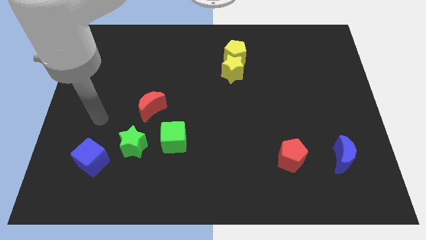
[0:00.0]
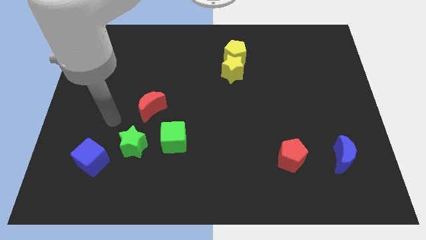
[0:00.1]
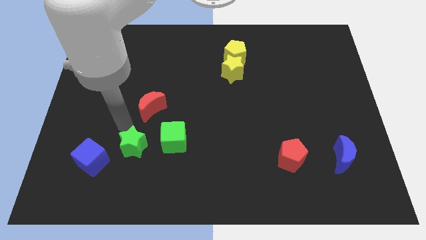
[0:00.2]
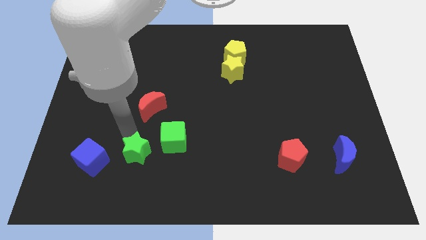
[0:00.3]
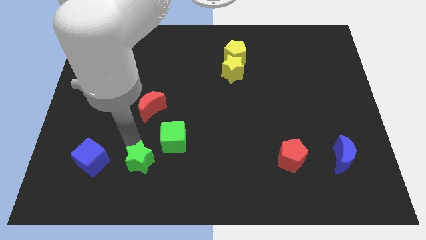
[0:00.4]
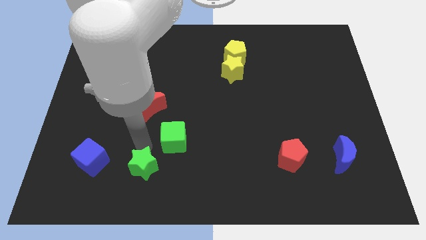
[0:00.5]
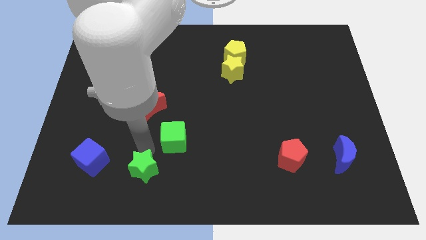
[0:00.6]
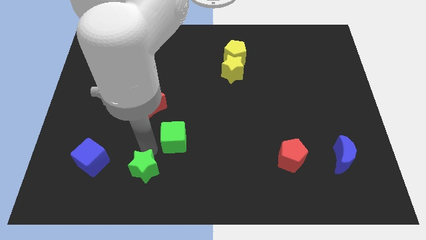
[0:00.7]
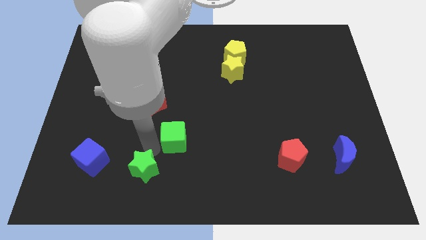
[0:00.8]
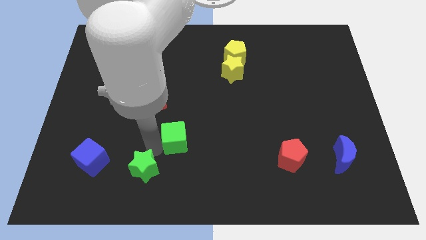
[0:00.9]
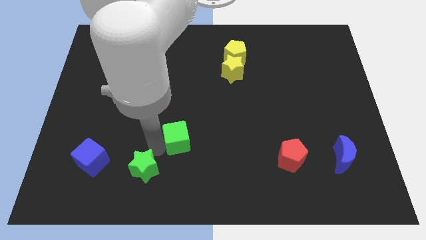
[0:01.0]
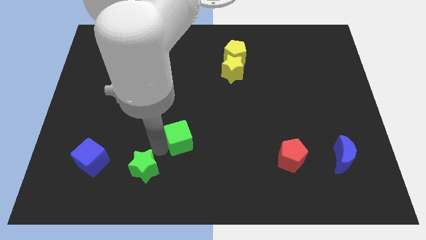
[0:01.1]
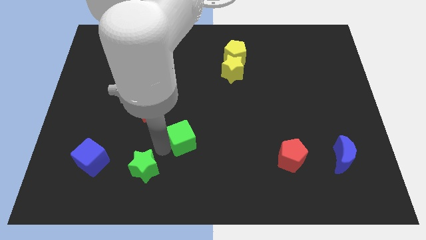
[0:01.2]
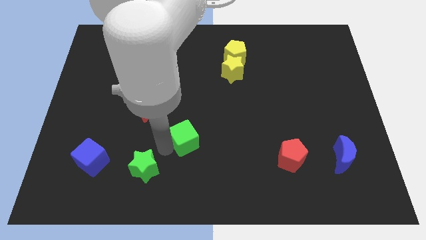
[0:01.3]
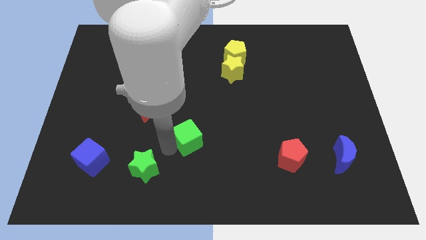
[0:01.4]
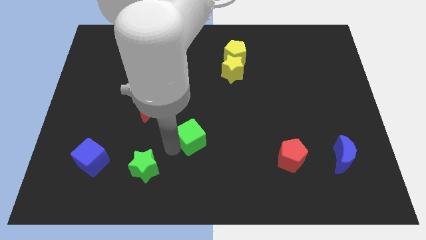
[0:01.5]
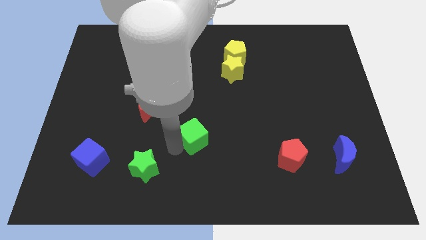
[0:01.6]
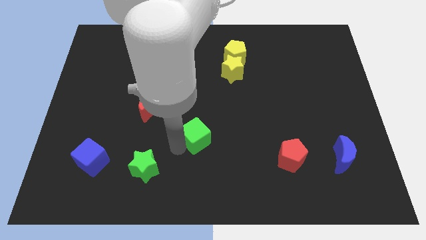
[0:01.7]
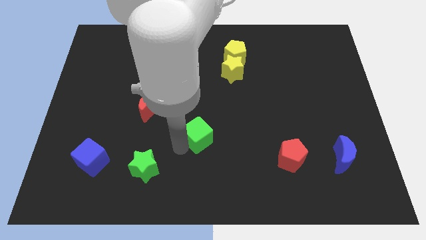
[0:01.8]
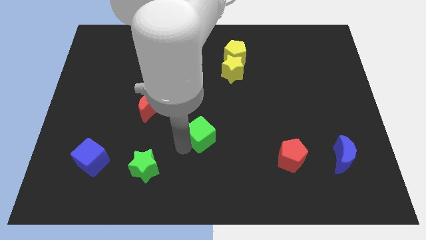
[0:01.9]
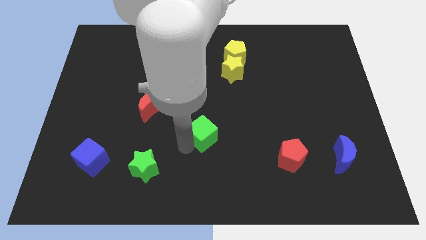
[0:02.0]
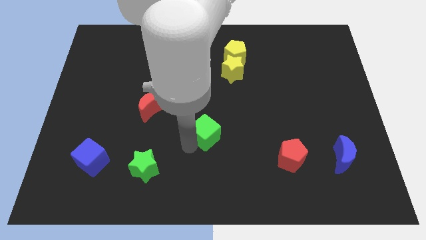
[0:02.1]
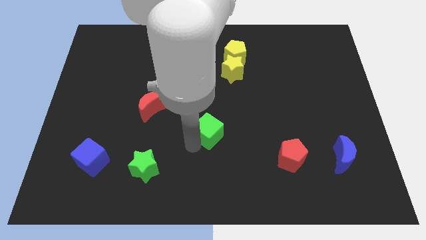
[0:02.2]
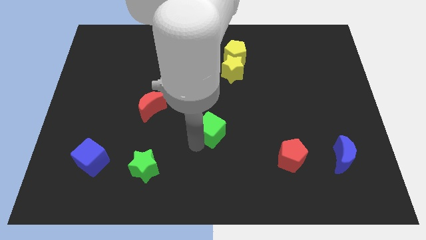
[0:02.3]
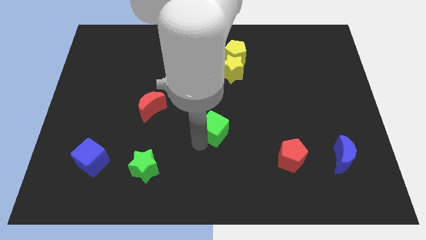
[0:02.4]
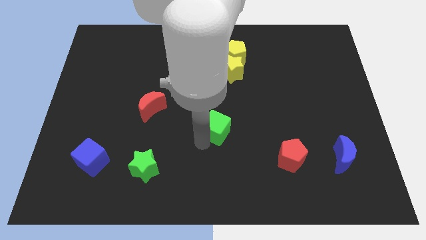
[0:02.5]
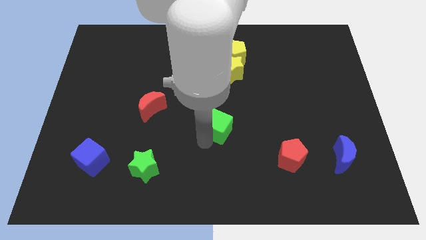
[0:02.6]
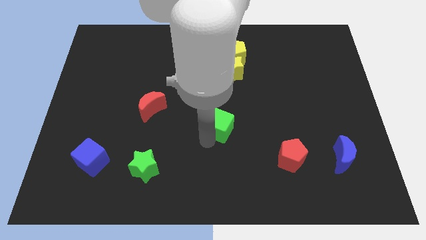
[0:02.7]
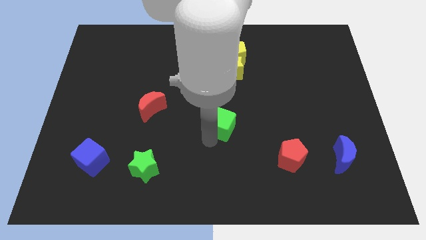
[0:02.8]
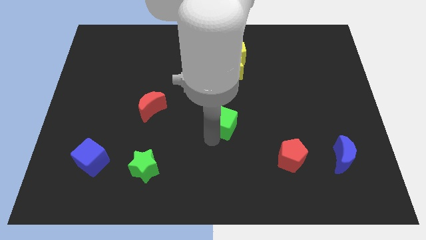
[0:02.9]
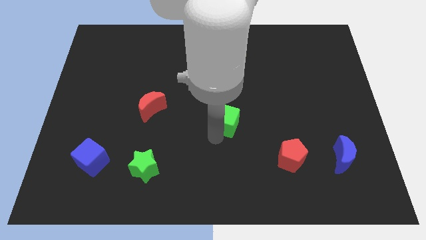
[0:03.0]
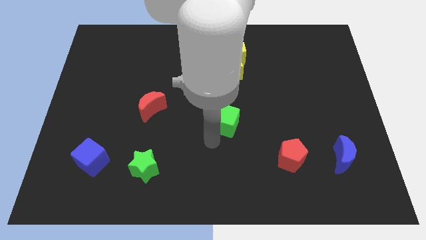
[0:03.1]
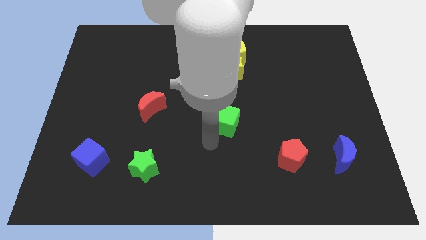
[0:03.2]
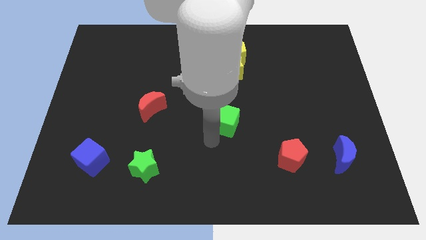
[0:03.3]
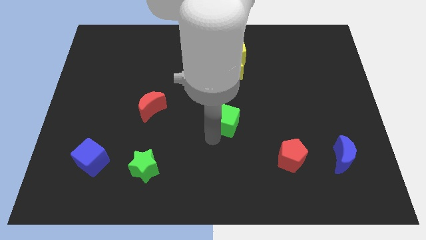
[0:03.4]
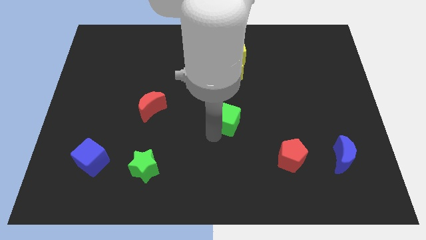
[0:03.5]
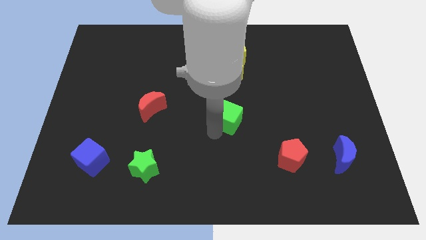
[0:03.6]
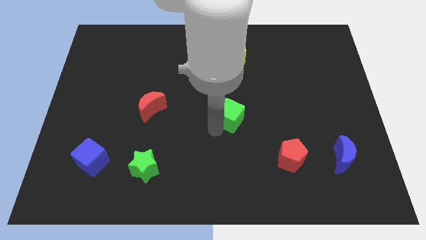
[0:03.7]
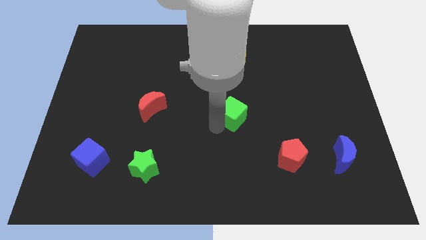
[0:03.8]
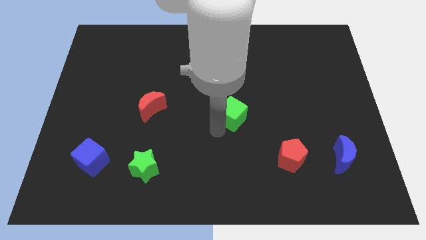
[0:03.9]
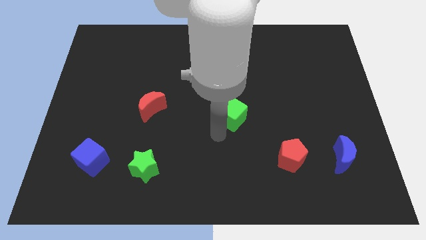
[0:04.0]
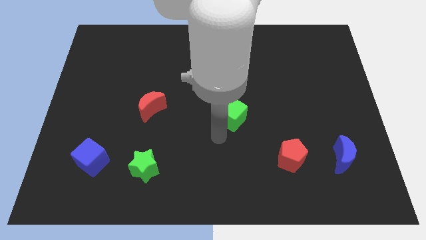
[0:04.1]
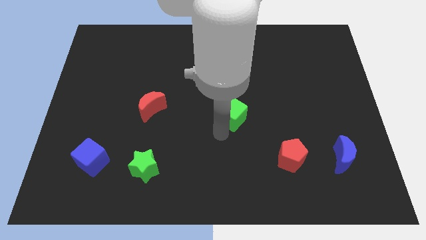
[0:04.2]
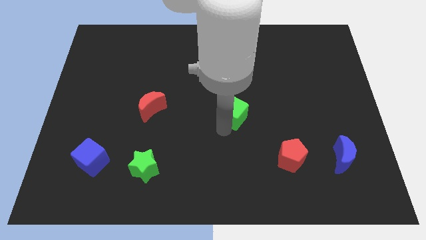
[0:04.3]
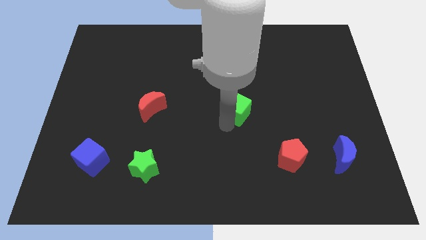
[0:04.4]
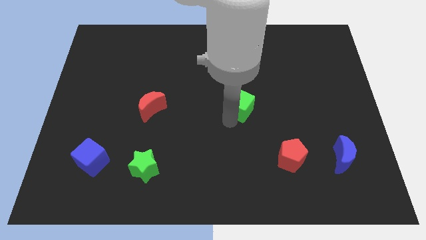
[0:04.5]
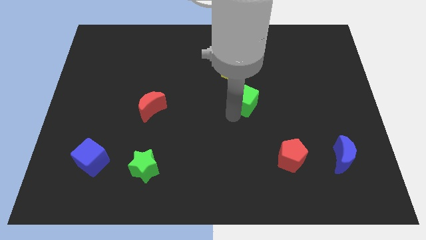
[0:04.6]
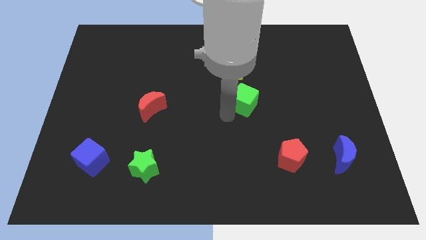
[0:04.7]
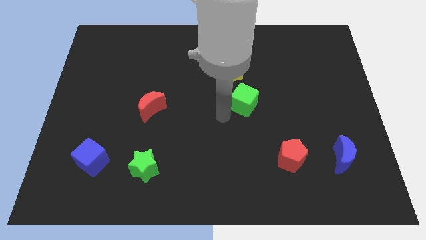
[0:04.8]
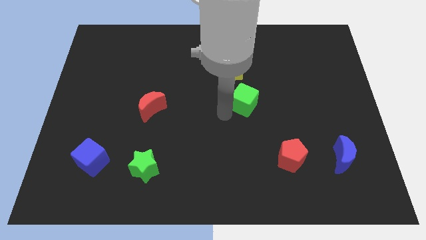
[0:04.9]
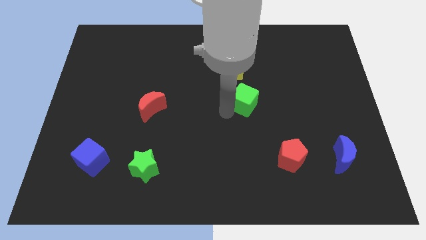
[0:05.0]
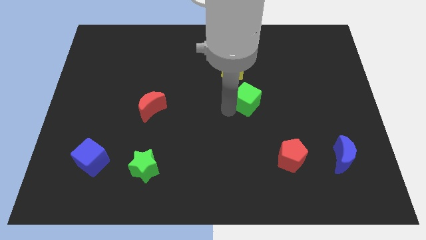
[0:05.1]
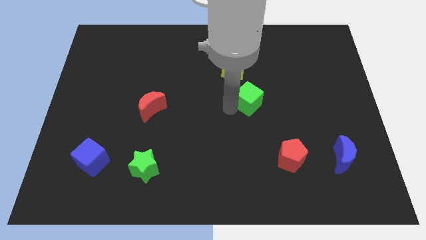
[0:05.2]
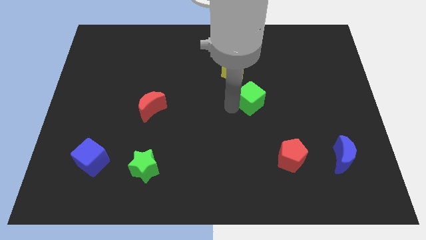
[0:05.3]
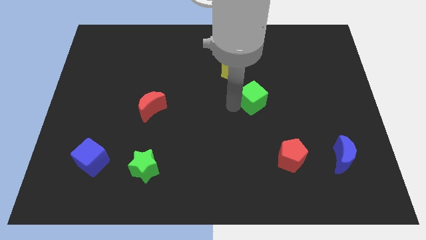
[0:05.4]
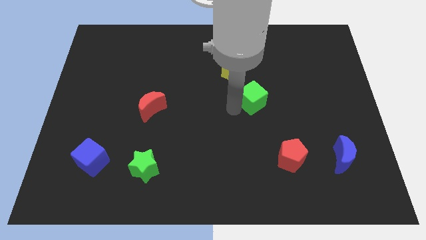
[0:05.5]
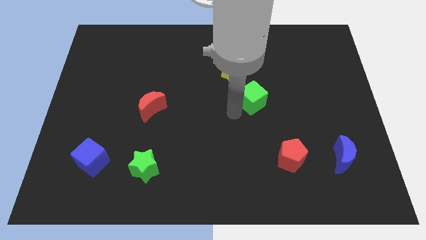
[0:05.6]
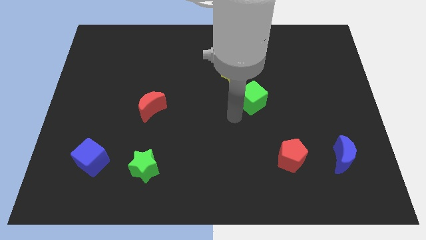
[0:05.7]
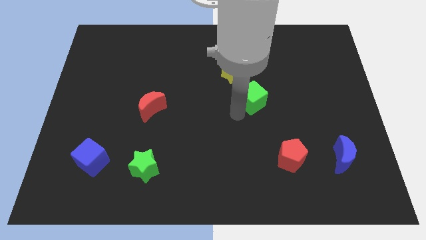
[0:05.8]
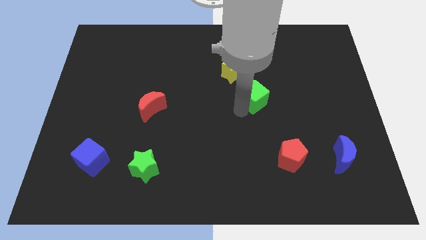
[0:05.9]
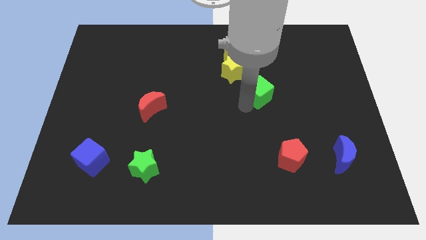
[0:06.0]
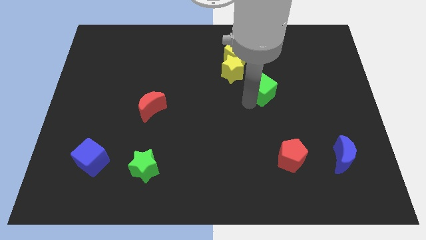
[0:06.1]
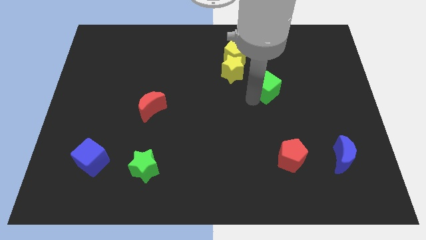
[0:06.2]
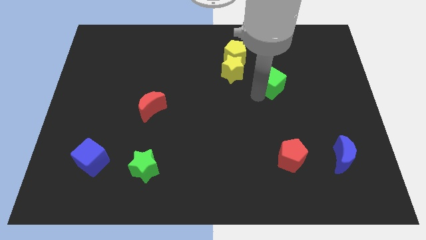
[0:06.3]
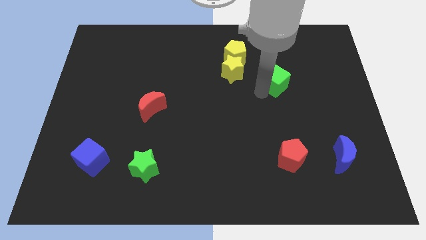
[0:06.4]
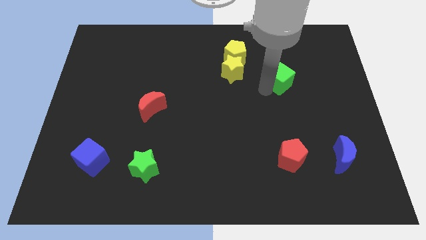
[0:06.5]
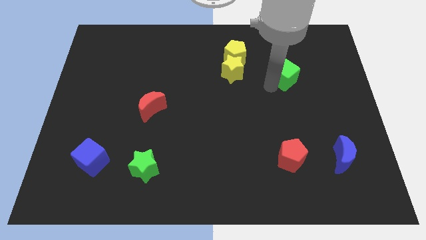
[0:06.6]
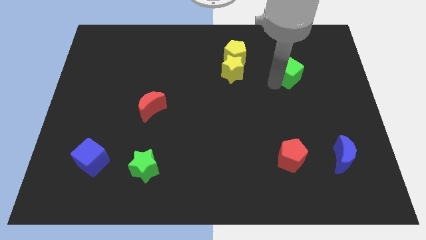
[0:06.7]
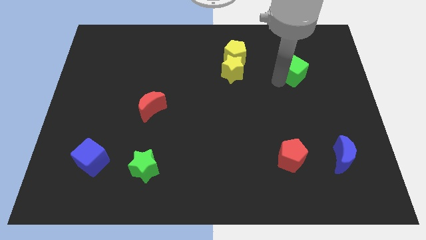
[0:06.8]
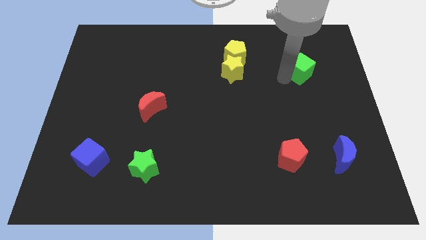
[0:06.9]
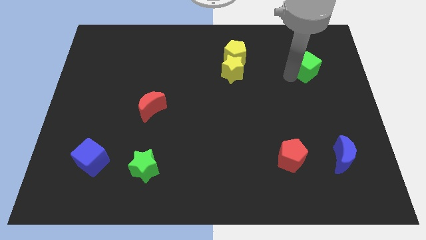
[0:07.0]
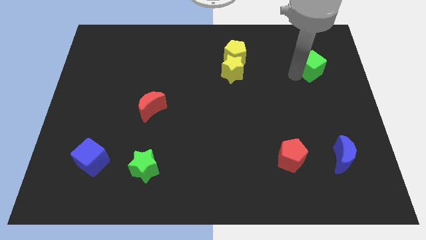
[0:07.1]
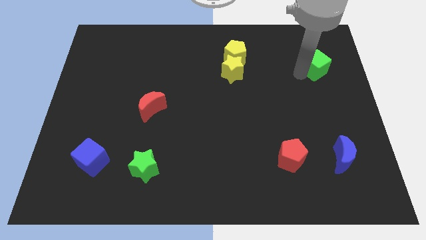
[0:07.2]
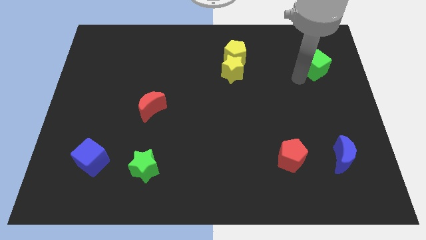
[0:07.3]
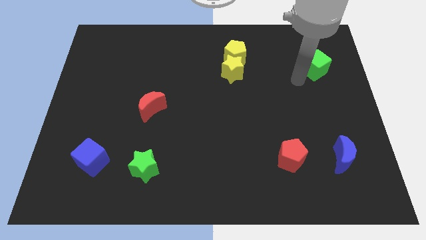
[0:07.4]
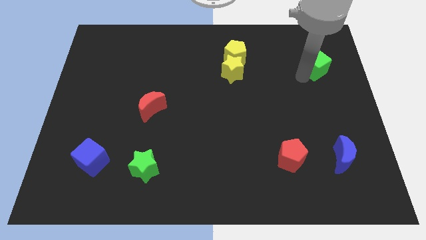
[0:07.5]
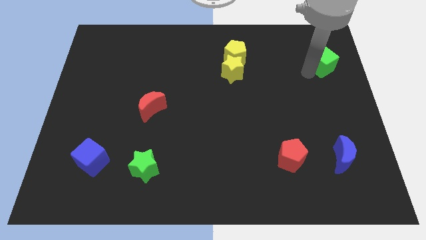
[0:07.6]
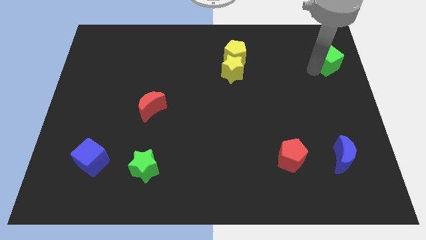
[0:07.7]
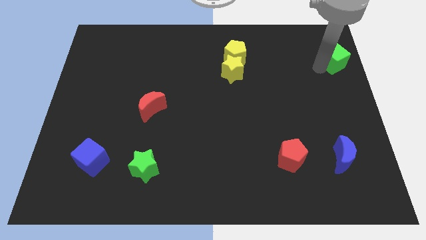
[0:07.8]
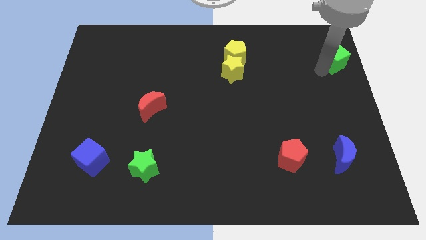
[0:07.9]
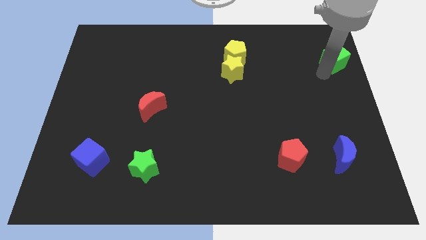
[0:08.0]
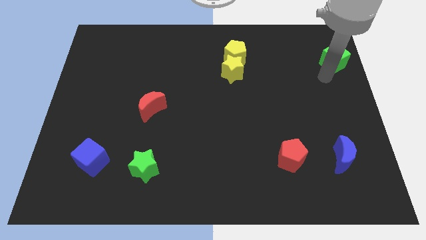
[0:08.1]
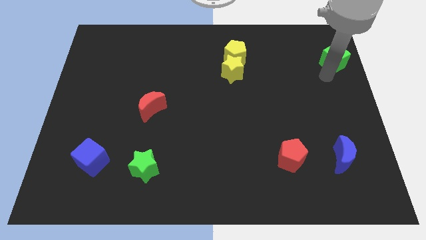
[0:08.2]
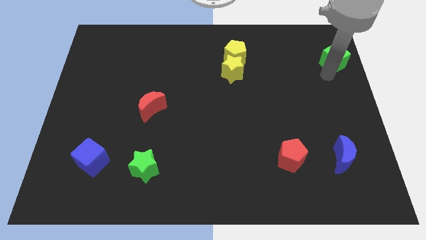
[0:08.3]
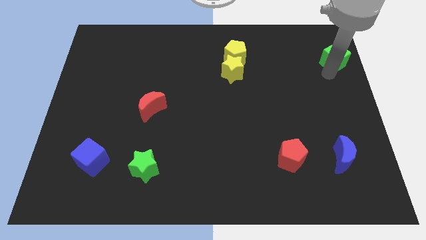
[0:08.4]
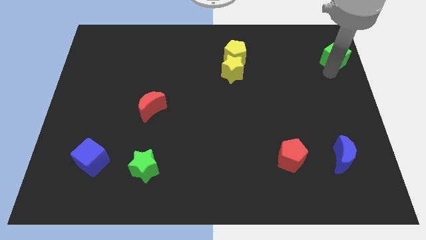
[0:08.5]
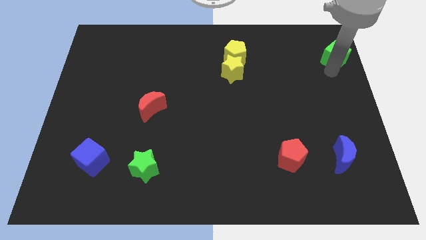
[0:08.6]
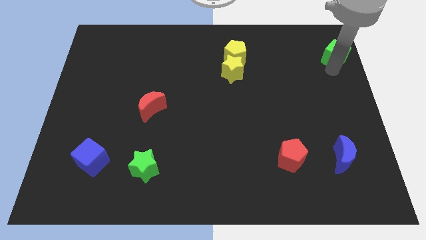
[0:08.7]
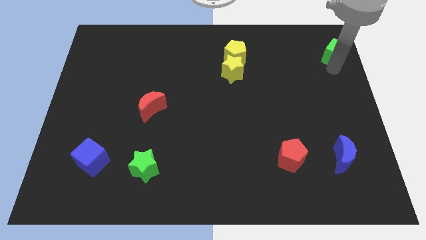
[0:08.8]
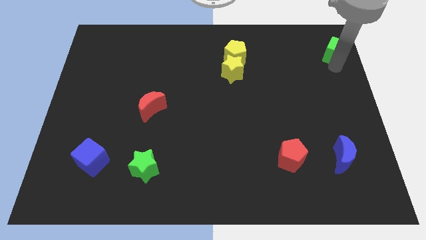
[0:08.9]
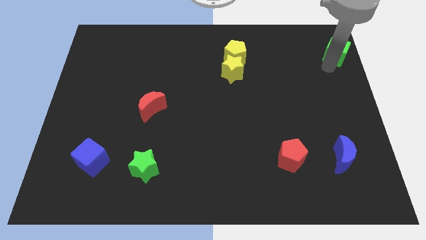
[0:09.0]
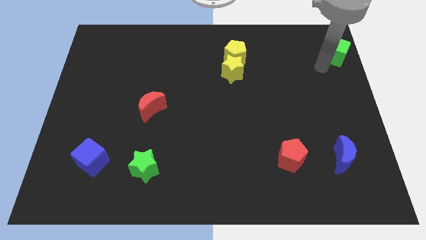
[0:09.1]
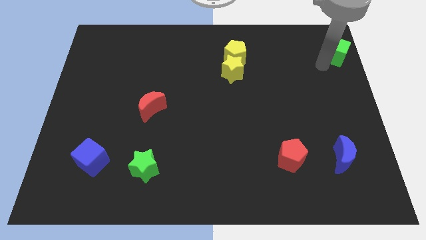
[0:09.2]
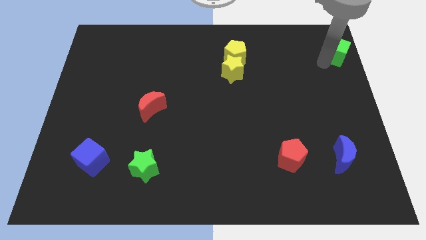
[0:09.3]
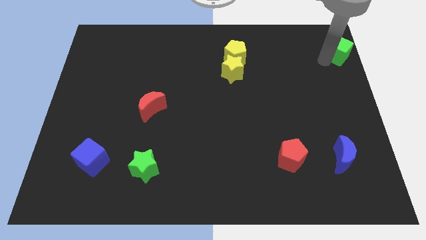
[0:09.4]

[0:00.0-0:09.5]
move the green cube to the upper right corner
